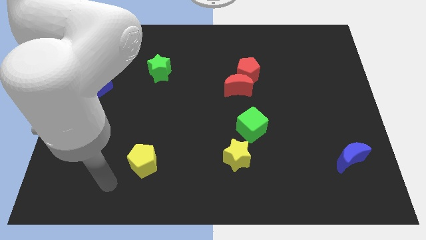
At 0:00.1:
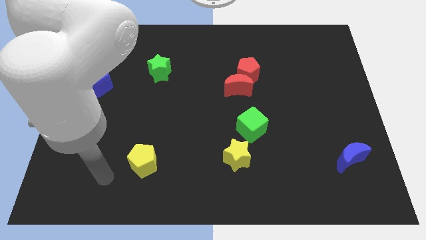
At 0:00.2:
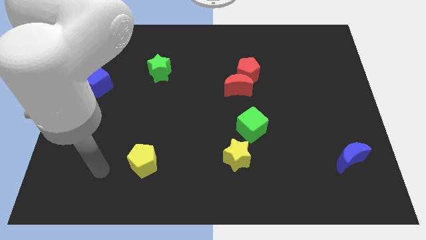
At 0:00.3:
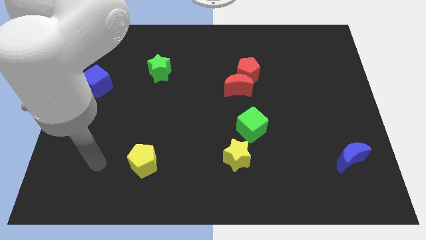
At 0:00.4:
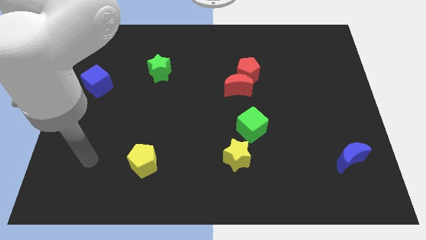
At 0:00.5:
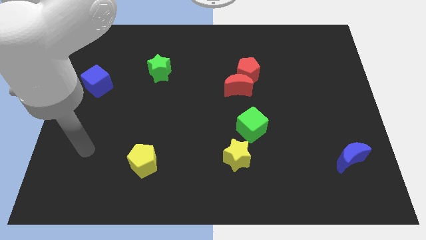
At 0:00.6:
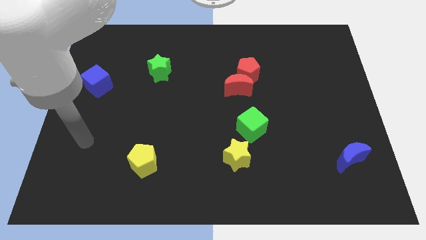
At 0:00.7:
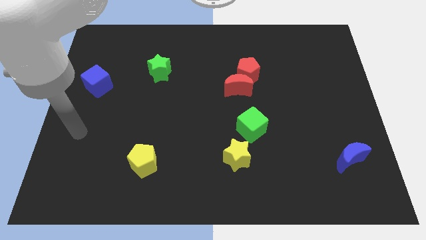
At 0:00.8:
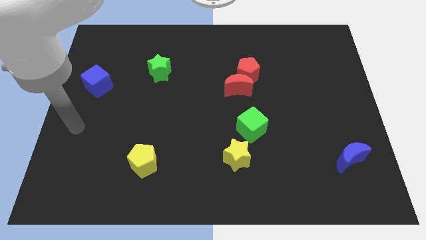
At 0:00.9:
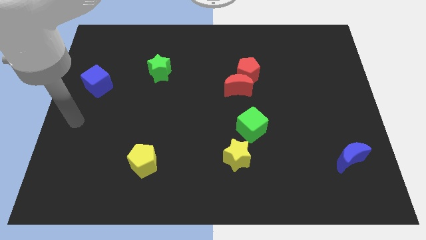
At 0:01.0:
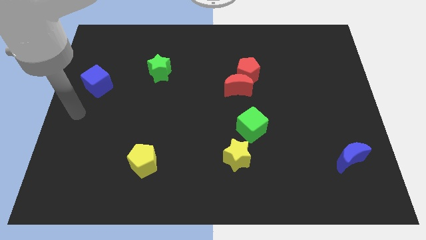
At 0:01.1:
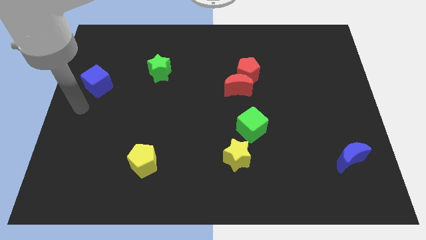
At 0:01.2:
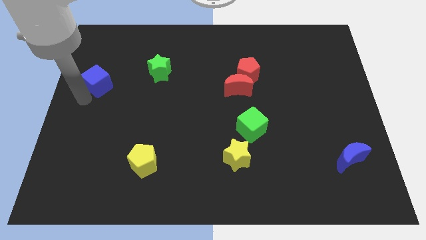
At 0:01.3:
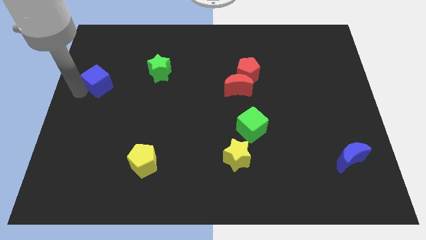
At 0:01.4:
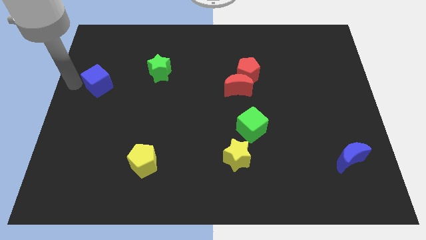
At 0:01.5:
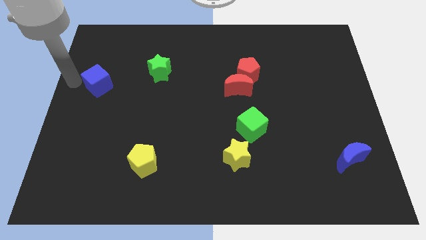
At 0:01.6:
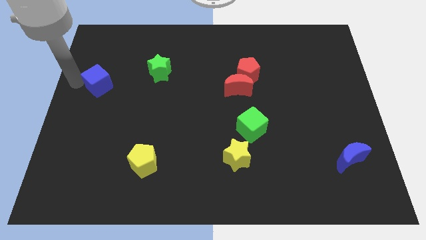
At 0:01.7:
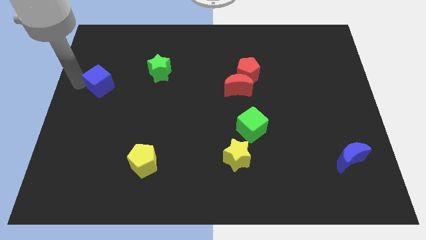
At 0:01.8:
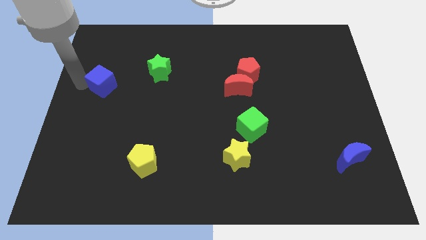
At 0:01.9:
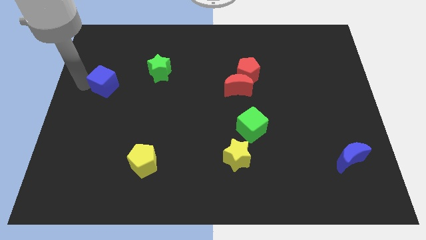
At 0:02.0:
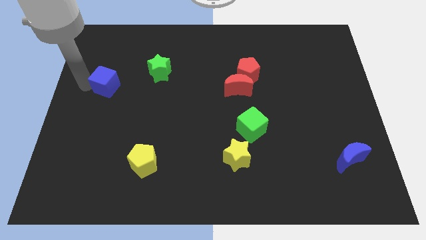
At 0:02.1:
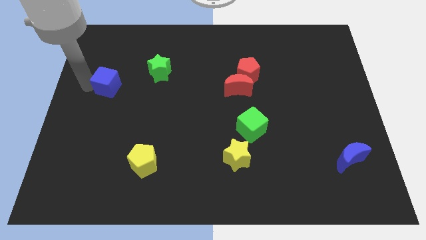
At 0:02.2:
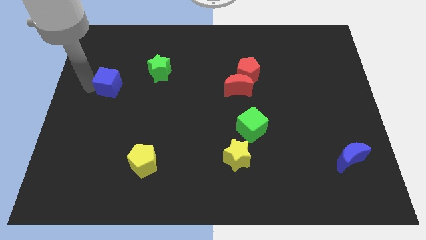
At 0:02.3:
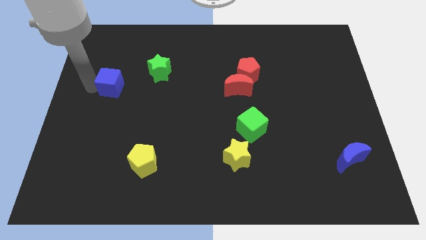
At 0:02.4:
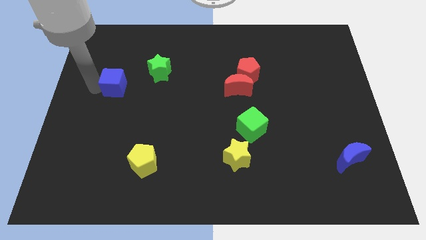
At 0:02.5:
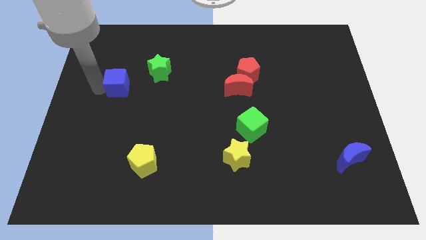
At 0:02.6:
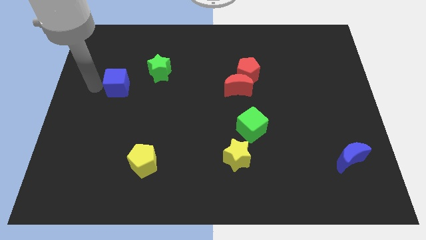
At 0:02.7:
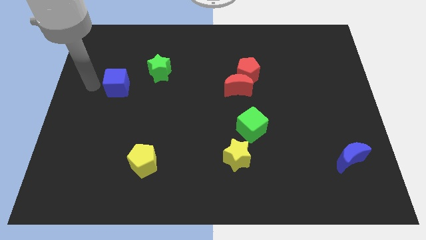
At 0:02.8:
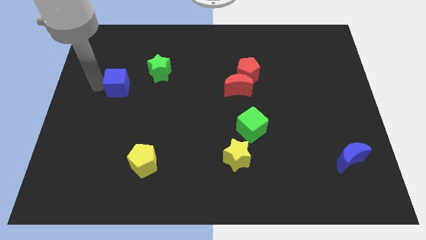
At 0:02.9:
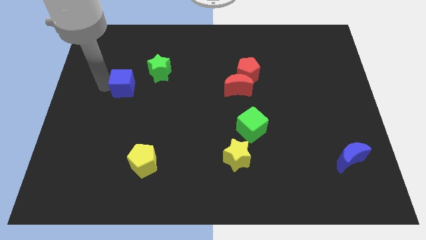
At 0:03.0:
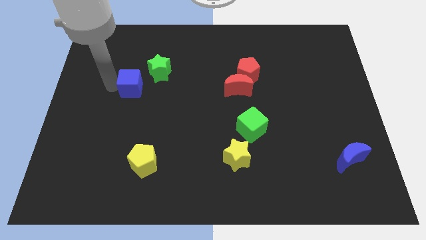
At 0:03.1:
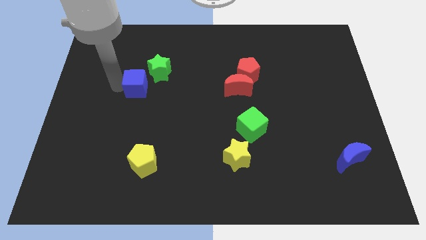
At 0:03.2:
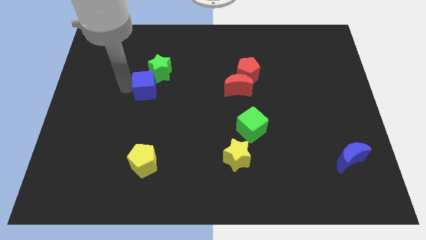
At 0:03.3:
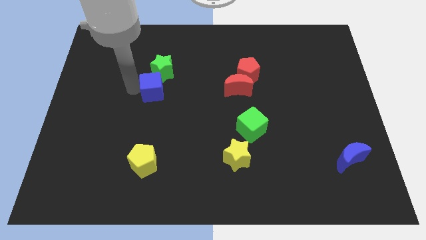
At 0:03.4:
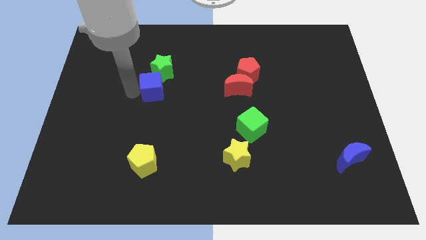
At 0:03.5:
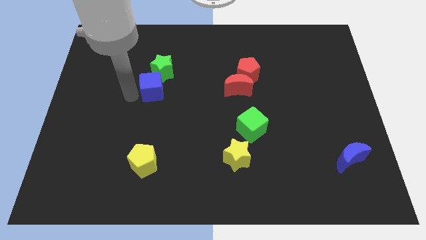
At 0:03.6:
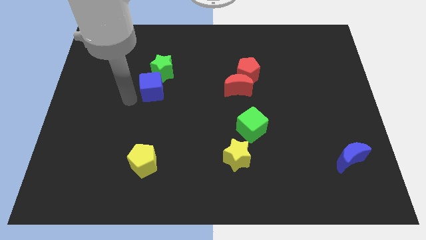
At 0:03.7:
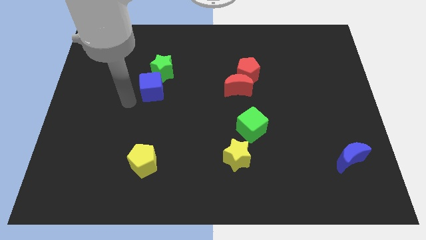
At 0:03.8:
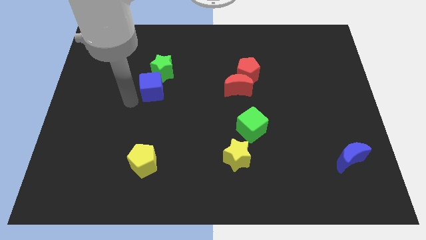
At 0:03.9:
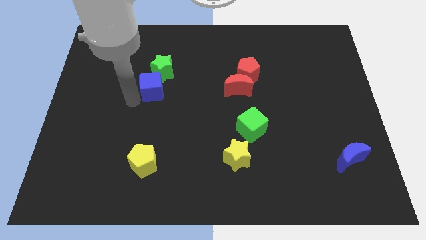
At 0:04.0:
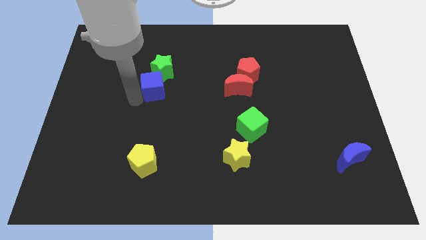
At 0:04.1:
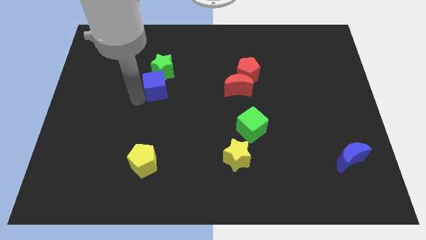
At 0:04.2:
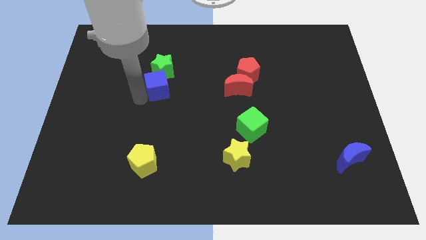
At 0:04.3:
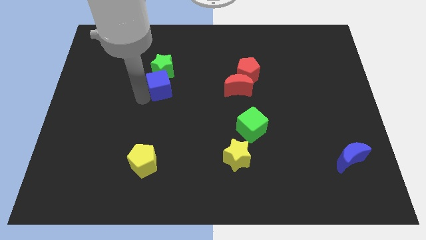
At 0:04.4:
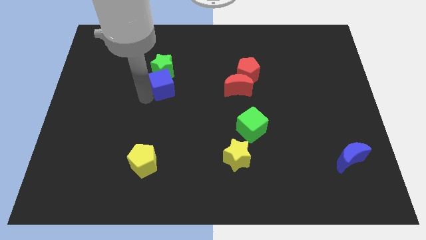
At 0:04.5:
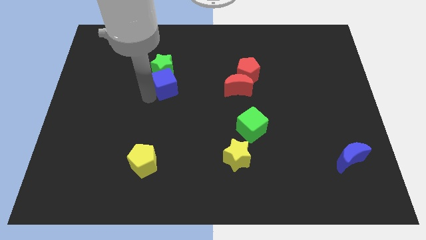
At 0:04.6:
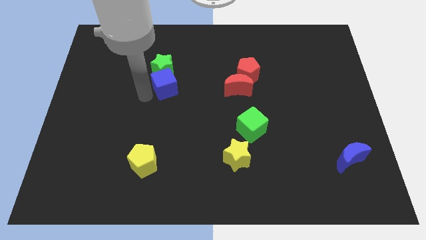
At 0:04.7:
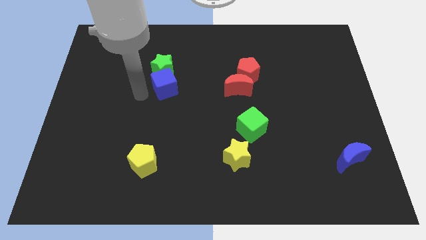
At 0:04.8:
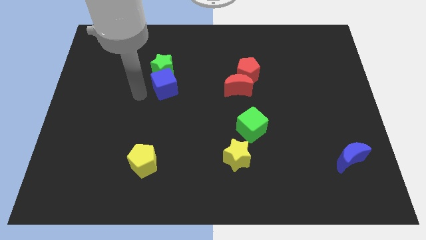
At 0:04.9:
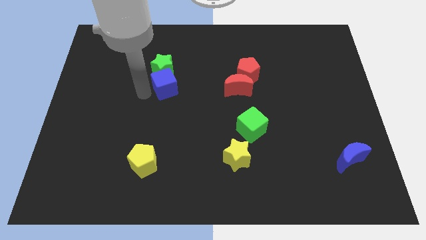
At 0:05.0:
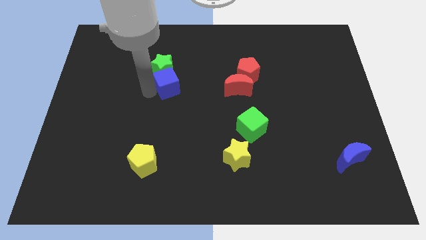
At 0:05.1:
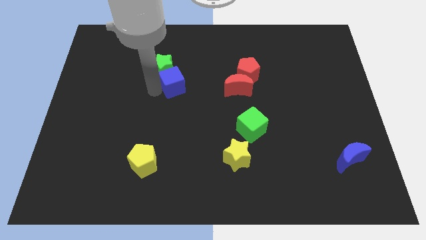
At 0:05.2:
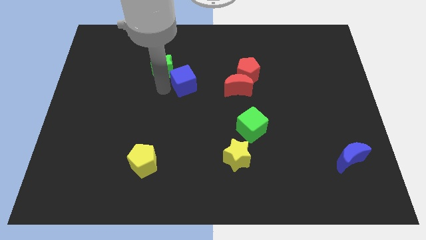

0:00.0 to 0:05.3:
push the blue cube right of the green star

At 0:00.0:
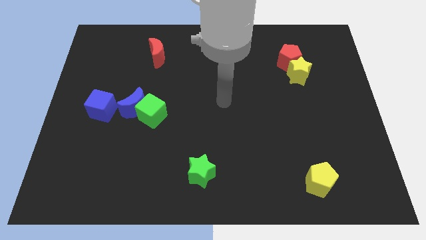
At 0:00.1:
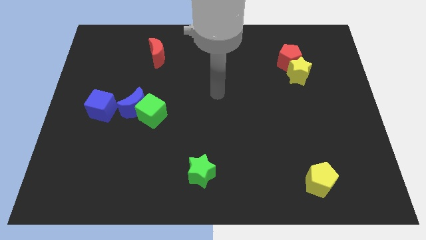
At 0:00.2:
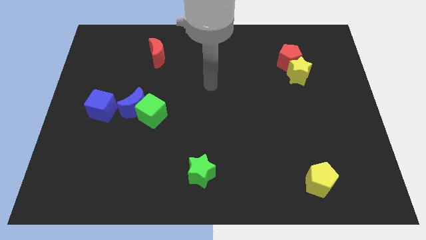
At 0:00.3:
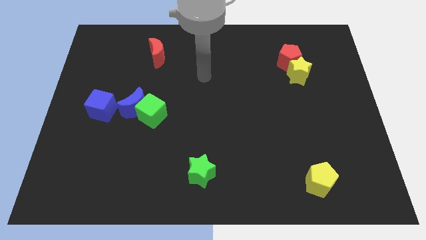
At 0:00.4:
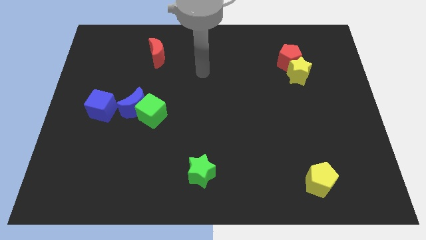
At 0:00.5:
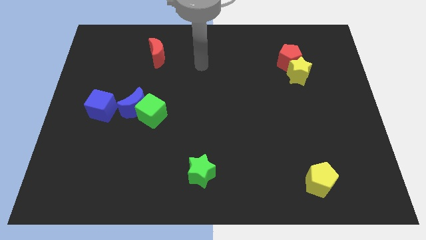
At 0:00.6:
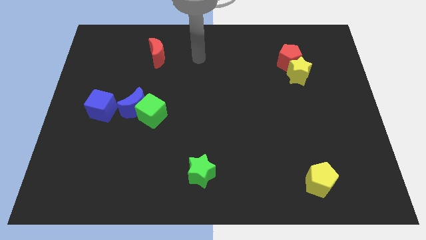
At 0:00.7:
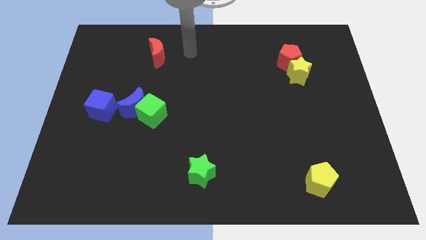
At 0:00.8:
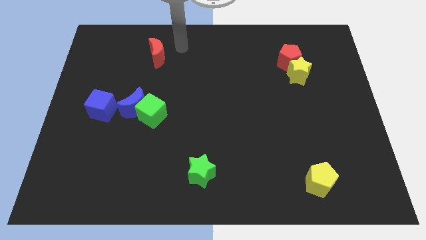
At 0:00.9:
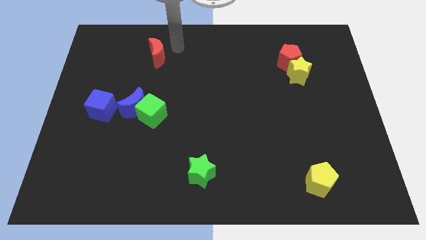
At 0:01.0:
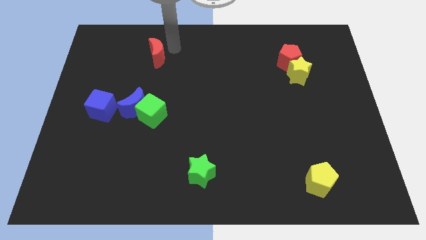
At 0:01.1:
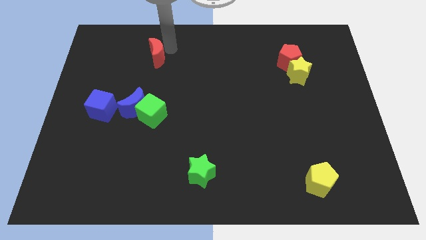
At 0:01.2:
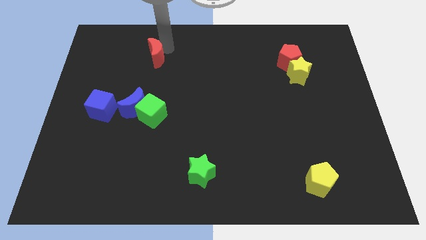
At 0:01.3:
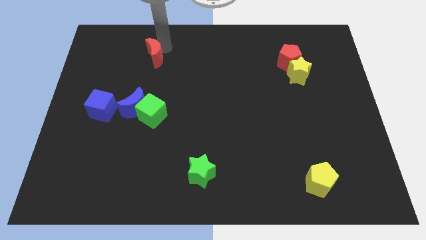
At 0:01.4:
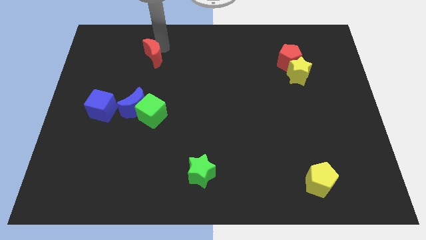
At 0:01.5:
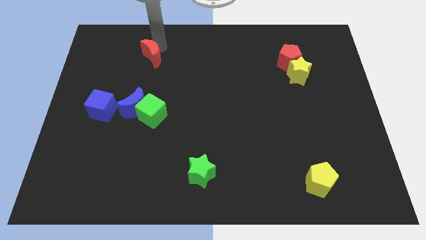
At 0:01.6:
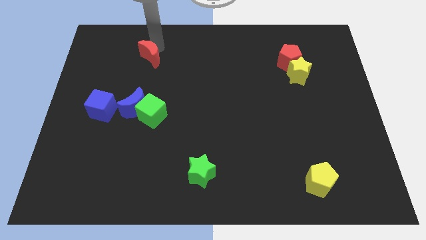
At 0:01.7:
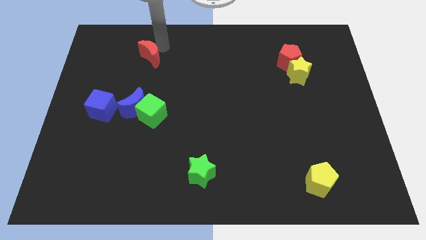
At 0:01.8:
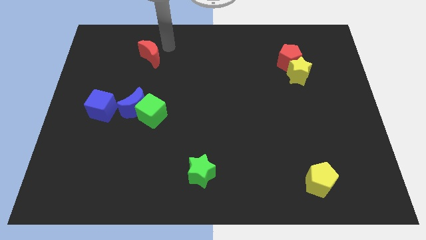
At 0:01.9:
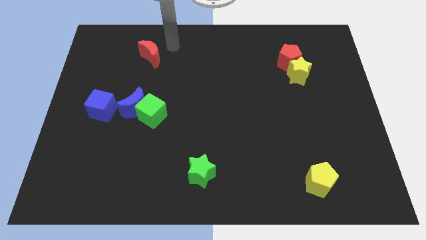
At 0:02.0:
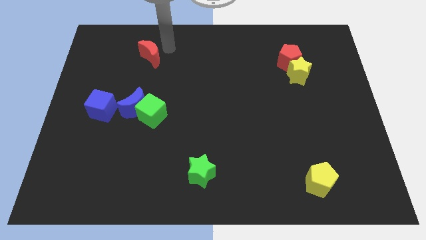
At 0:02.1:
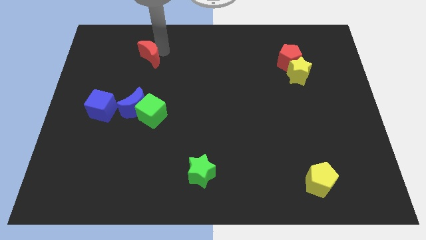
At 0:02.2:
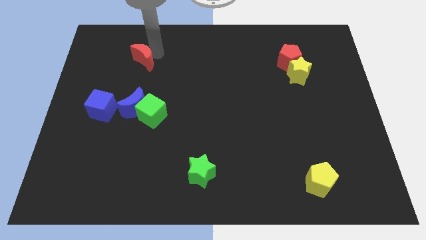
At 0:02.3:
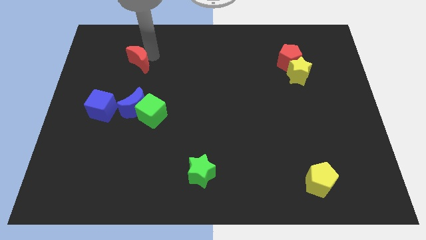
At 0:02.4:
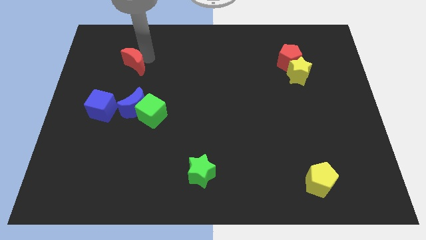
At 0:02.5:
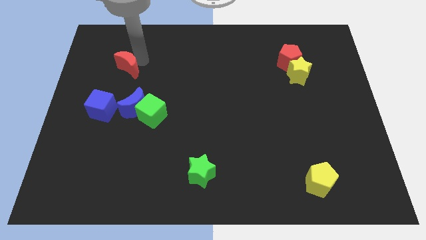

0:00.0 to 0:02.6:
push the red moon to the top of the blue cube
